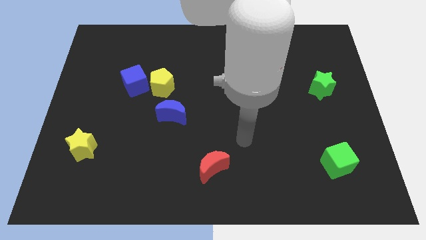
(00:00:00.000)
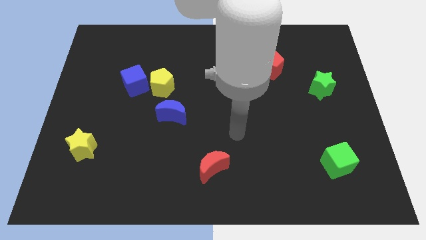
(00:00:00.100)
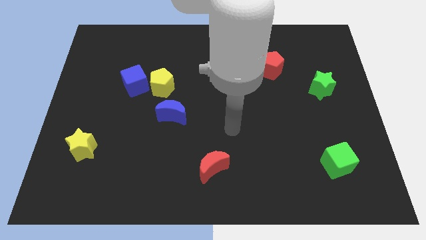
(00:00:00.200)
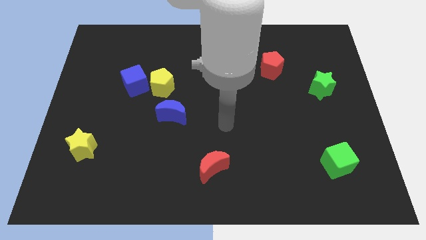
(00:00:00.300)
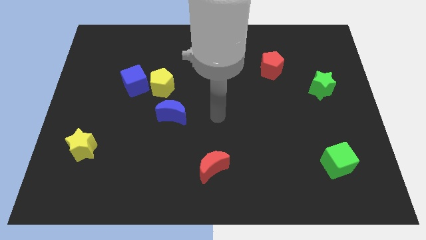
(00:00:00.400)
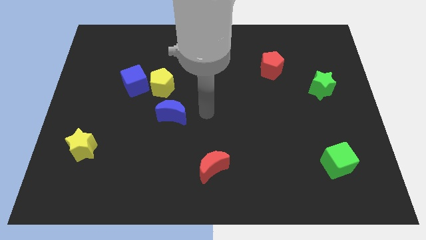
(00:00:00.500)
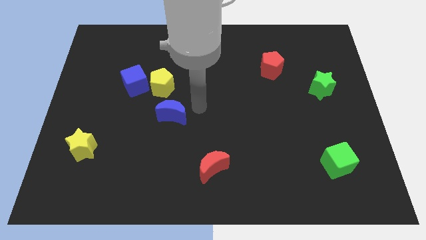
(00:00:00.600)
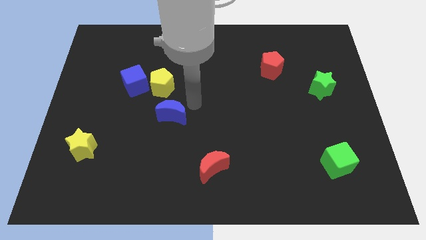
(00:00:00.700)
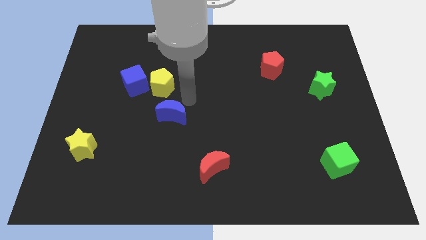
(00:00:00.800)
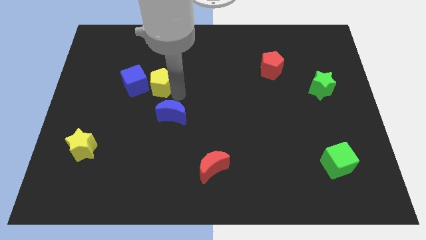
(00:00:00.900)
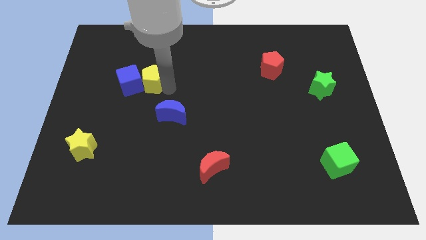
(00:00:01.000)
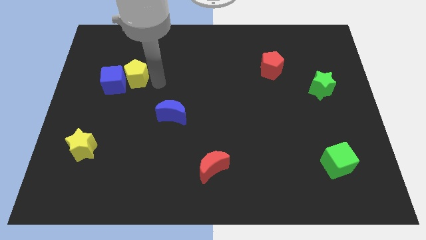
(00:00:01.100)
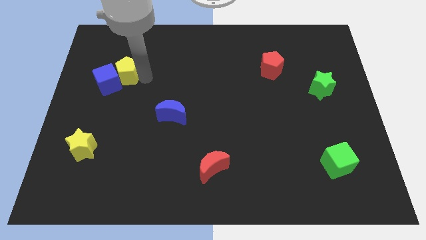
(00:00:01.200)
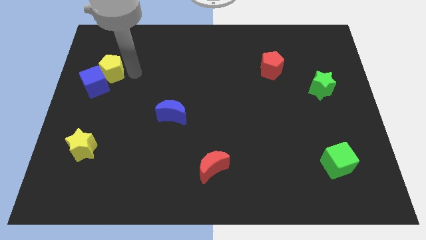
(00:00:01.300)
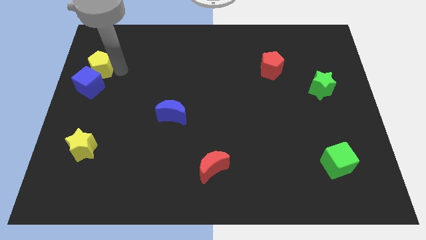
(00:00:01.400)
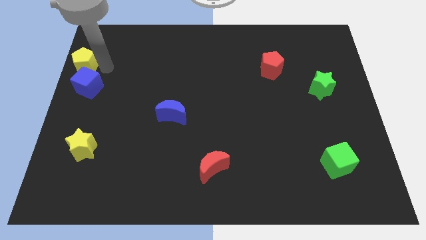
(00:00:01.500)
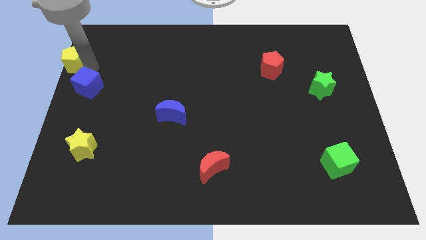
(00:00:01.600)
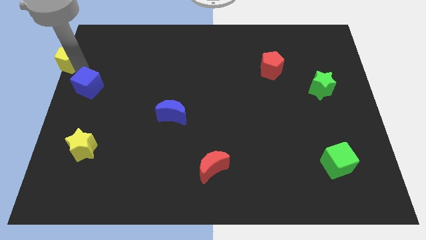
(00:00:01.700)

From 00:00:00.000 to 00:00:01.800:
pull the blue cube apart from the yellow pentagon

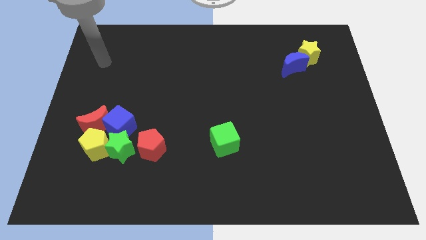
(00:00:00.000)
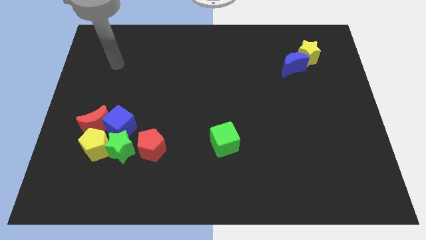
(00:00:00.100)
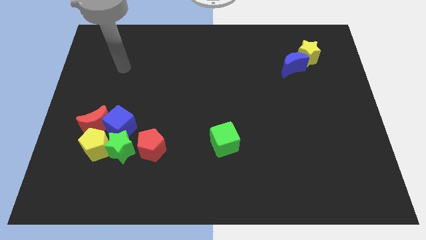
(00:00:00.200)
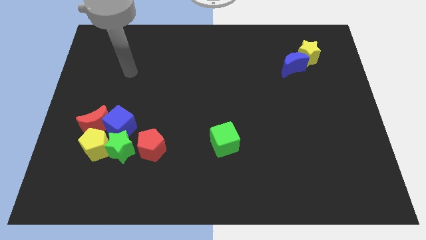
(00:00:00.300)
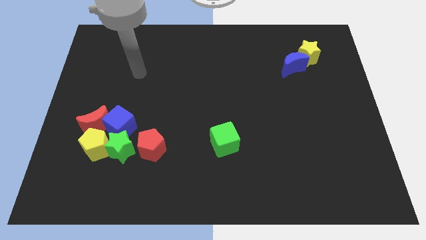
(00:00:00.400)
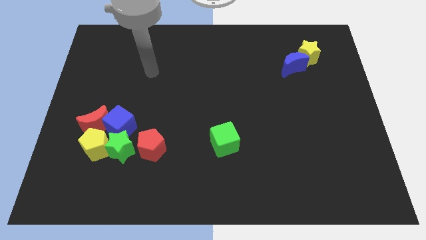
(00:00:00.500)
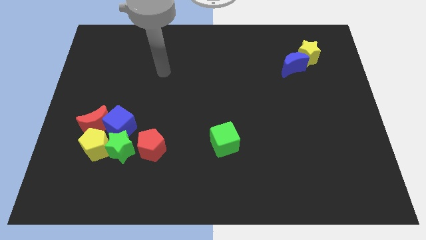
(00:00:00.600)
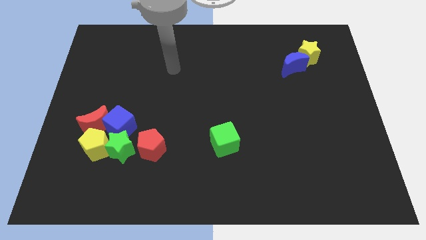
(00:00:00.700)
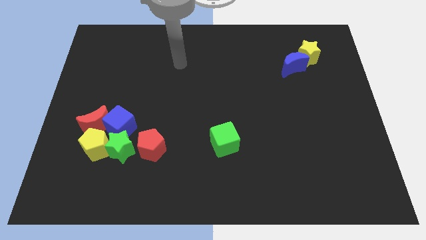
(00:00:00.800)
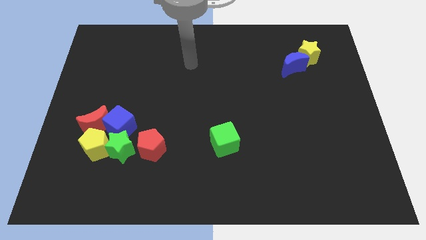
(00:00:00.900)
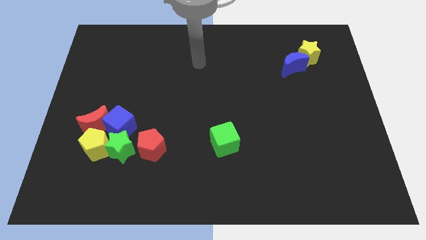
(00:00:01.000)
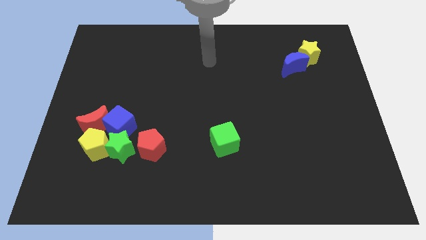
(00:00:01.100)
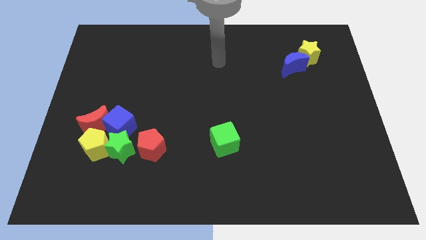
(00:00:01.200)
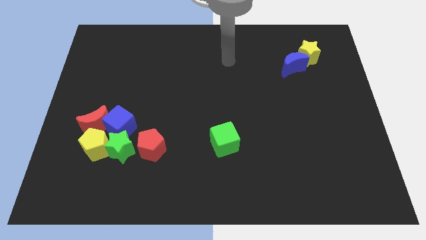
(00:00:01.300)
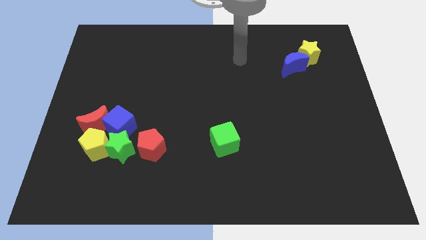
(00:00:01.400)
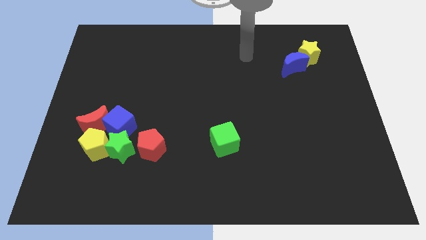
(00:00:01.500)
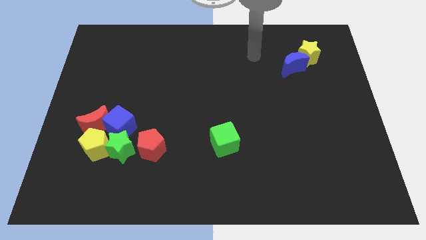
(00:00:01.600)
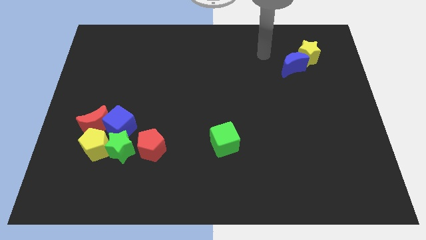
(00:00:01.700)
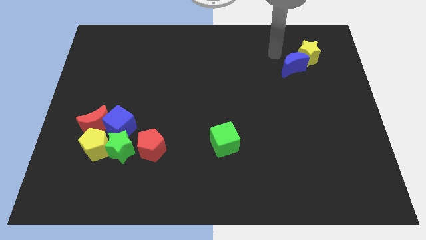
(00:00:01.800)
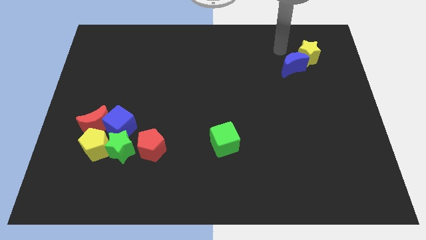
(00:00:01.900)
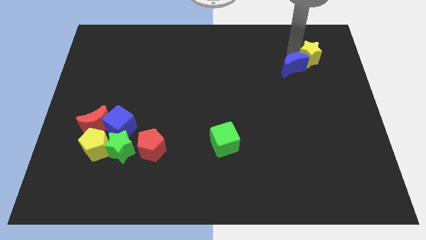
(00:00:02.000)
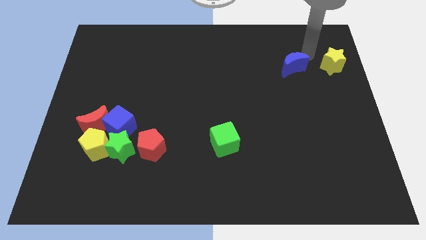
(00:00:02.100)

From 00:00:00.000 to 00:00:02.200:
separate the blue moon from the yellow star

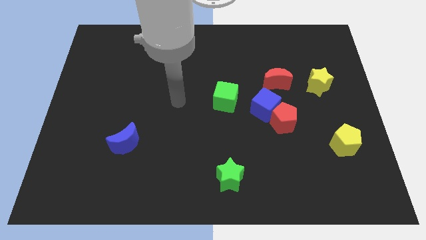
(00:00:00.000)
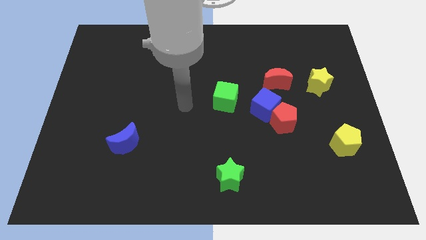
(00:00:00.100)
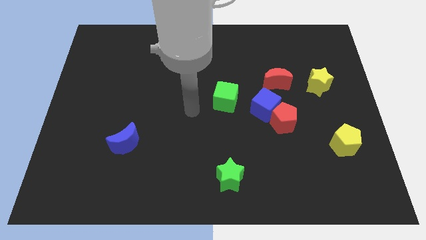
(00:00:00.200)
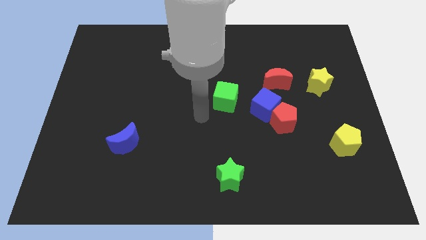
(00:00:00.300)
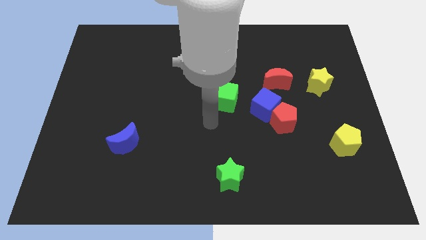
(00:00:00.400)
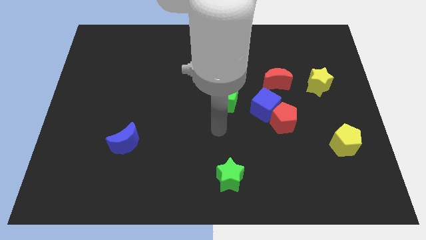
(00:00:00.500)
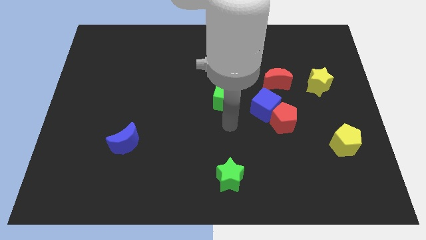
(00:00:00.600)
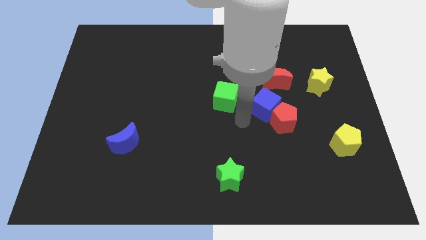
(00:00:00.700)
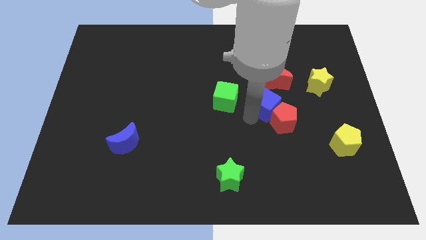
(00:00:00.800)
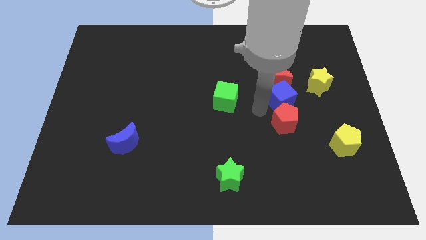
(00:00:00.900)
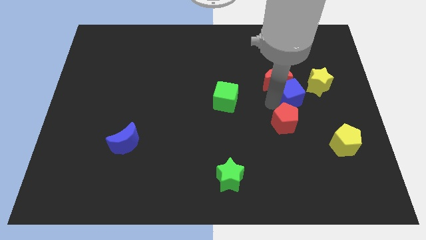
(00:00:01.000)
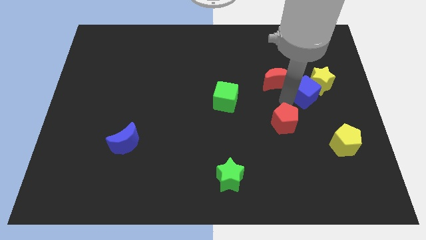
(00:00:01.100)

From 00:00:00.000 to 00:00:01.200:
move the red pentagon away from the blue cube

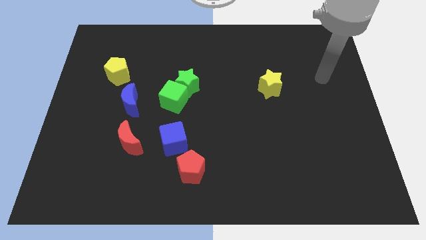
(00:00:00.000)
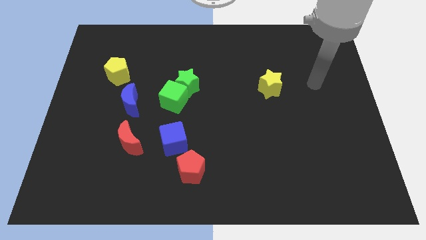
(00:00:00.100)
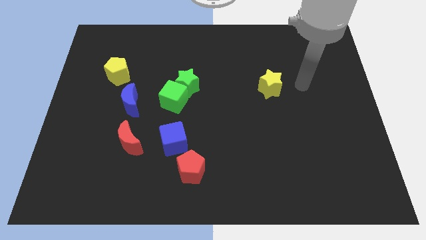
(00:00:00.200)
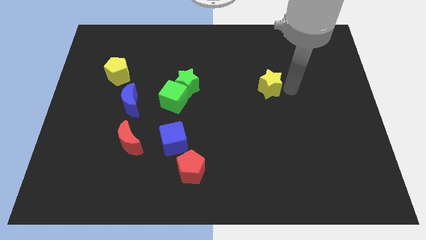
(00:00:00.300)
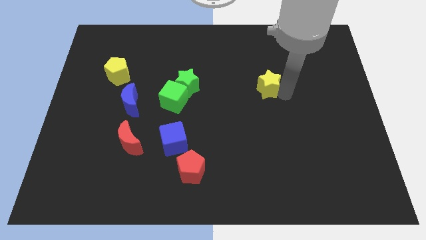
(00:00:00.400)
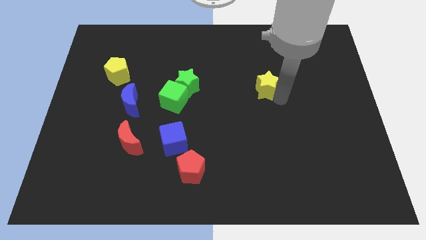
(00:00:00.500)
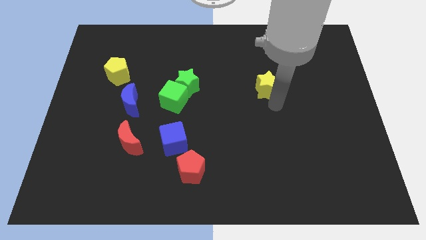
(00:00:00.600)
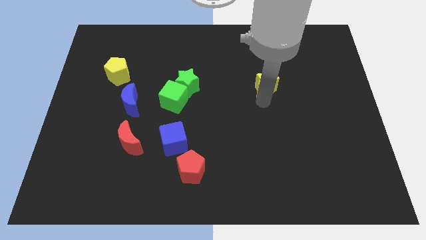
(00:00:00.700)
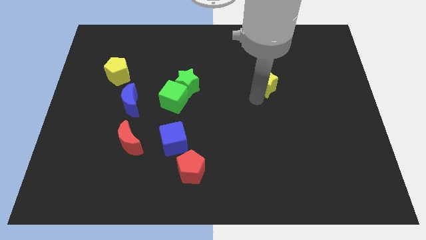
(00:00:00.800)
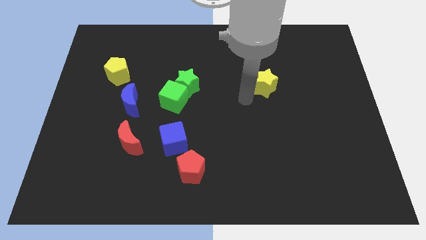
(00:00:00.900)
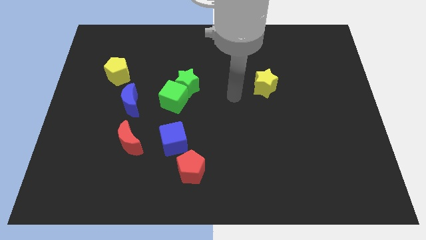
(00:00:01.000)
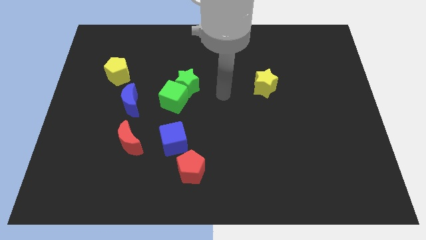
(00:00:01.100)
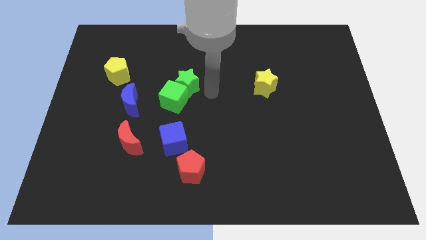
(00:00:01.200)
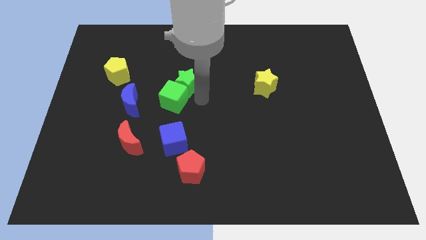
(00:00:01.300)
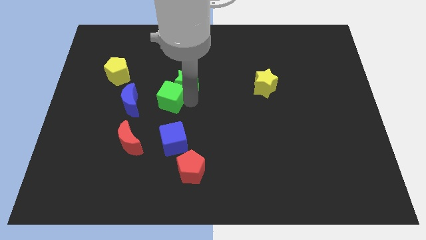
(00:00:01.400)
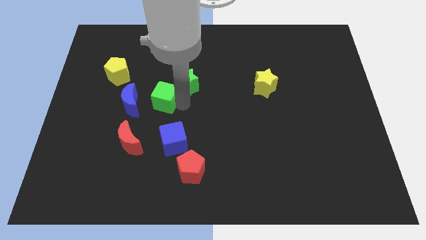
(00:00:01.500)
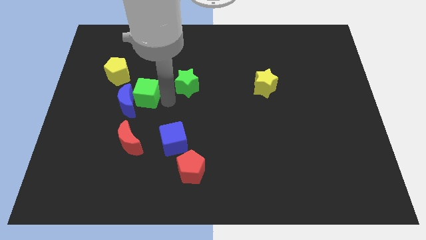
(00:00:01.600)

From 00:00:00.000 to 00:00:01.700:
separate the green star from the green cube

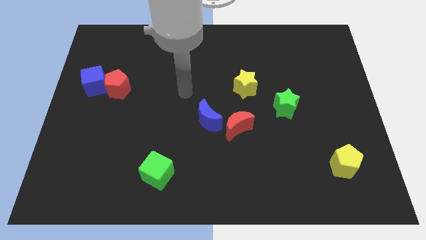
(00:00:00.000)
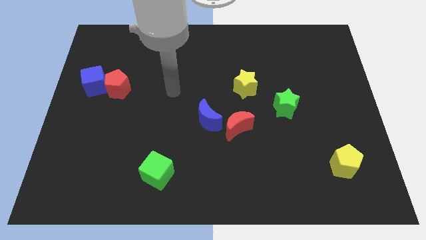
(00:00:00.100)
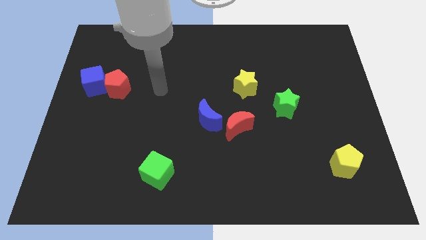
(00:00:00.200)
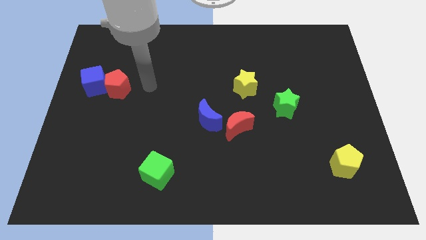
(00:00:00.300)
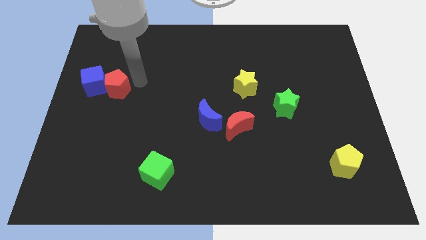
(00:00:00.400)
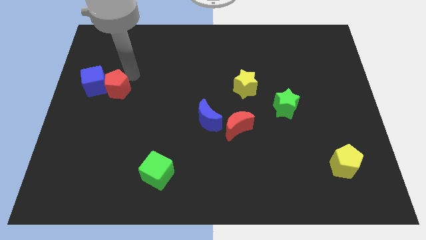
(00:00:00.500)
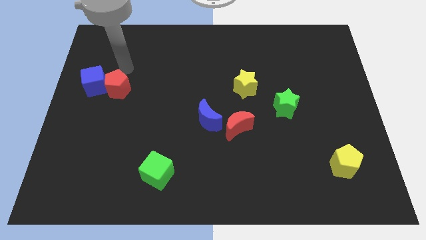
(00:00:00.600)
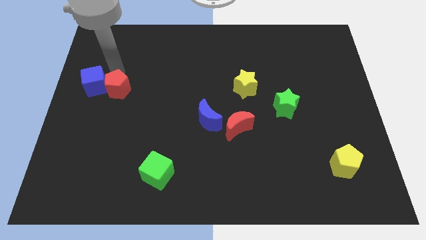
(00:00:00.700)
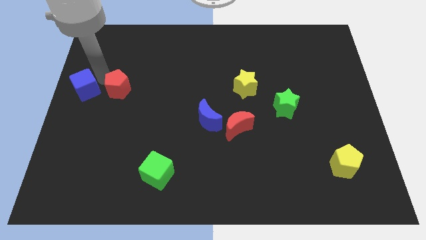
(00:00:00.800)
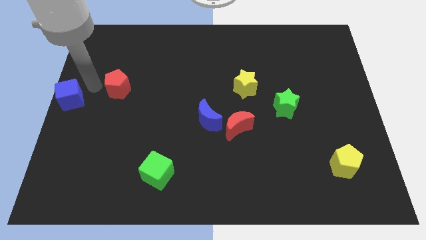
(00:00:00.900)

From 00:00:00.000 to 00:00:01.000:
pull the red pentagon apart from the blue cube

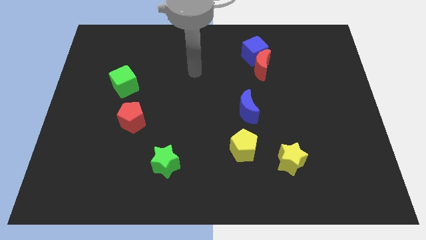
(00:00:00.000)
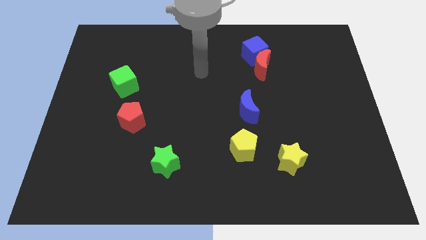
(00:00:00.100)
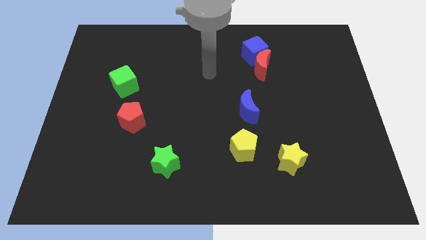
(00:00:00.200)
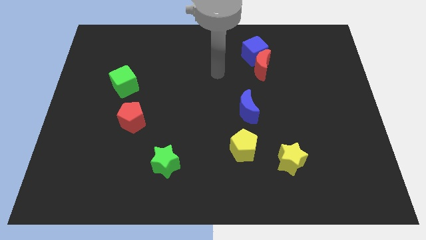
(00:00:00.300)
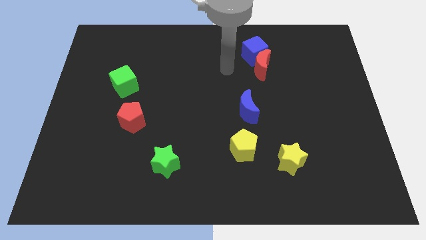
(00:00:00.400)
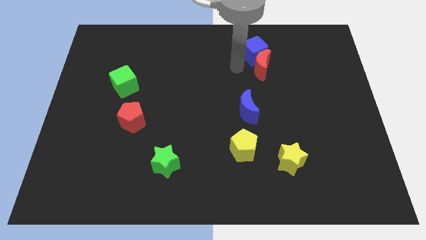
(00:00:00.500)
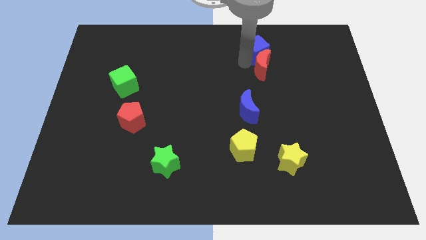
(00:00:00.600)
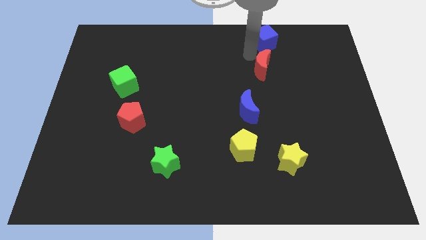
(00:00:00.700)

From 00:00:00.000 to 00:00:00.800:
pull the red moon apart from the blue cube

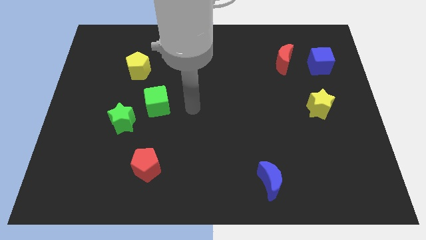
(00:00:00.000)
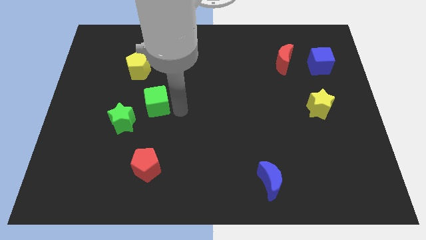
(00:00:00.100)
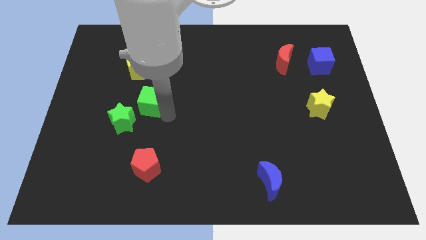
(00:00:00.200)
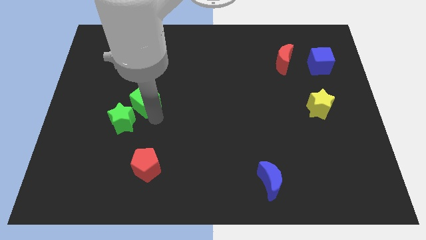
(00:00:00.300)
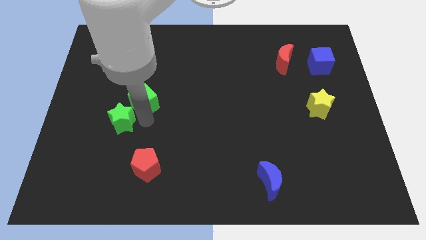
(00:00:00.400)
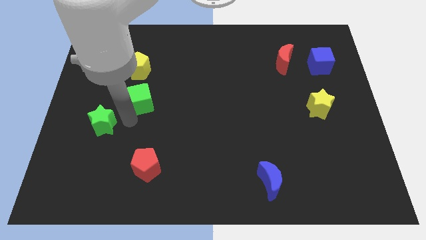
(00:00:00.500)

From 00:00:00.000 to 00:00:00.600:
move the green cube away from the green star
